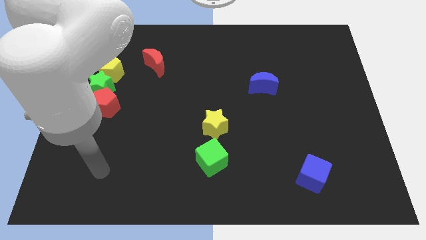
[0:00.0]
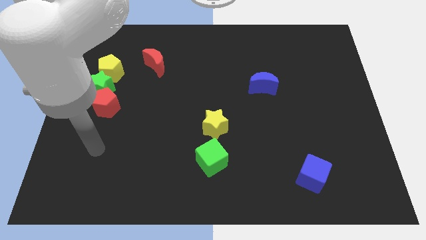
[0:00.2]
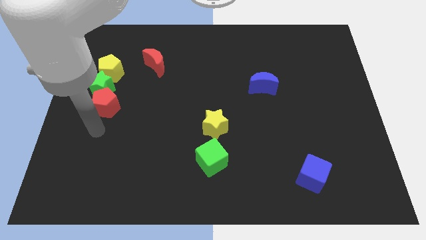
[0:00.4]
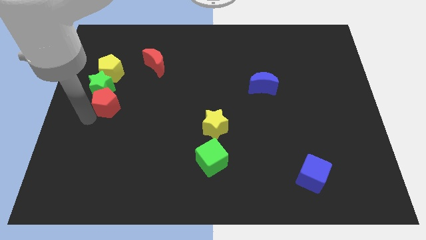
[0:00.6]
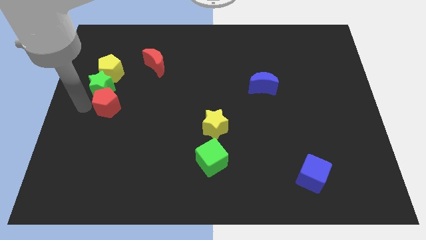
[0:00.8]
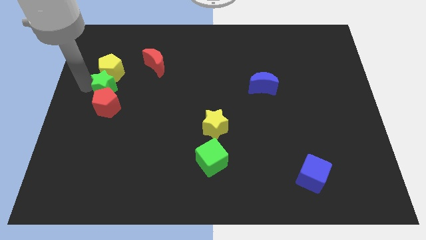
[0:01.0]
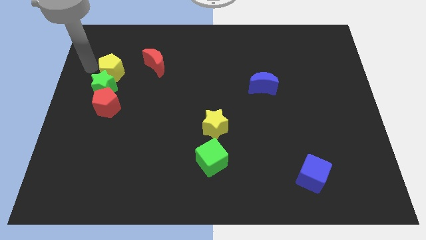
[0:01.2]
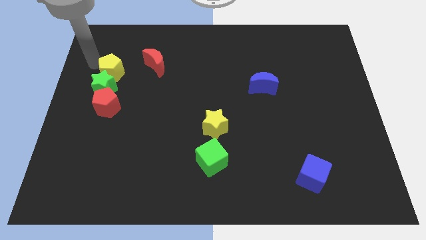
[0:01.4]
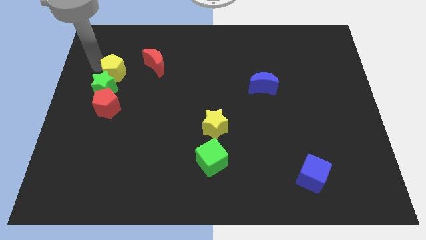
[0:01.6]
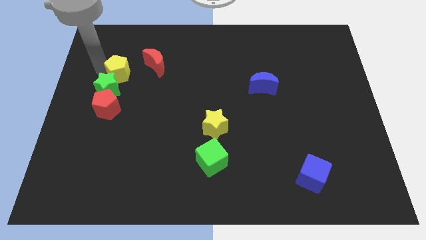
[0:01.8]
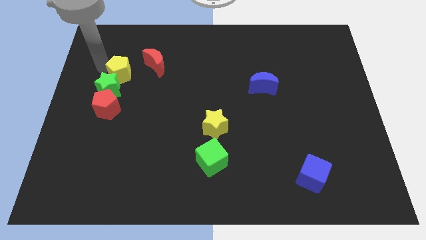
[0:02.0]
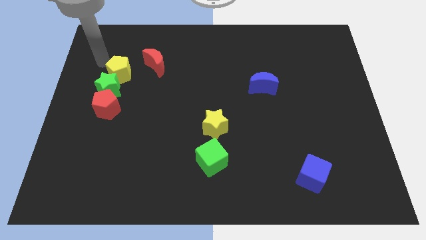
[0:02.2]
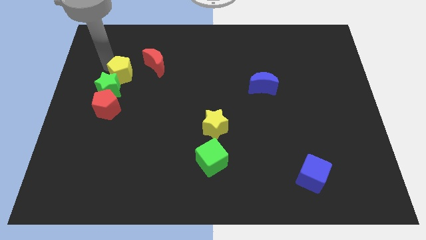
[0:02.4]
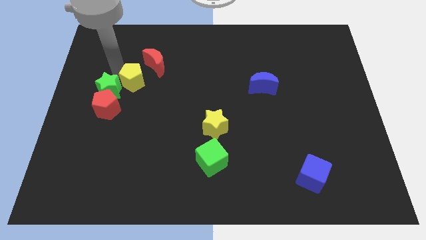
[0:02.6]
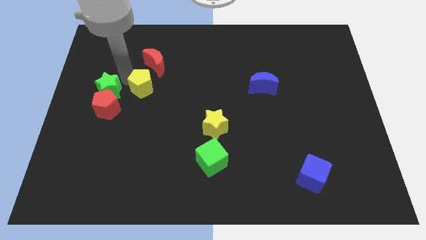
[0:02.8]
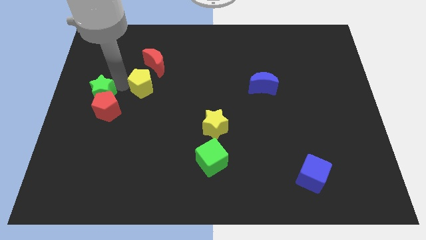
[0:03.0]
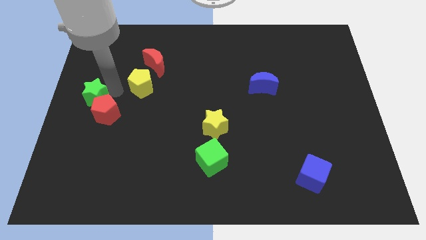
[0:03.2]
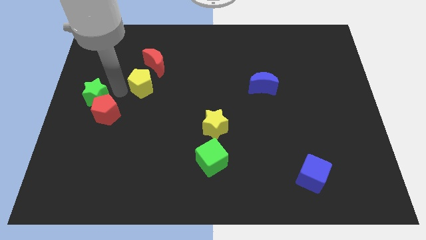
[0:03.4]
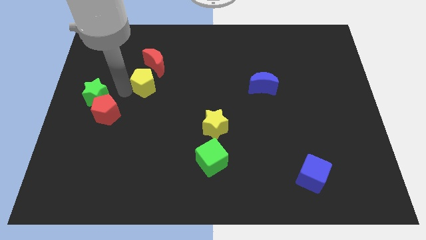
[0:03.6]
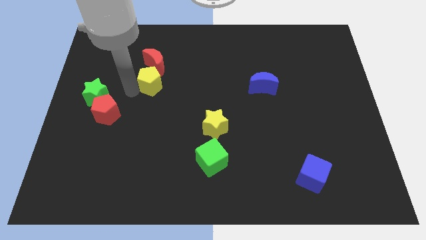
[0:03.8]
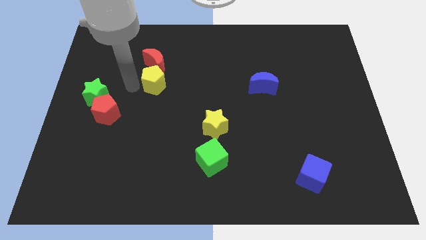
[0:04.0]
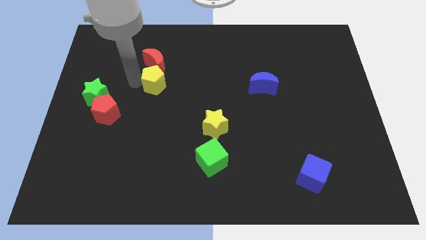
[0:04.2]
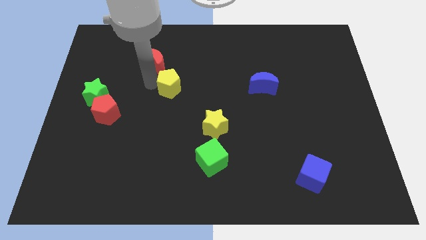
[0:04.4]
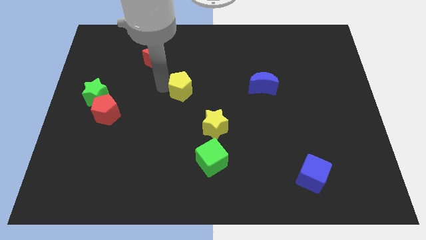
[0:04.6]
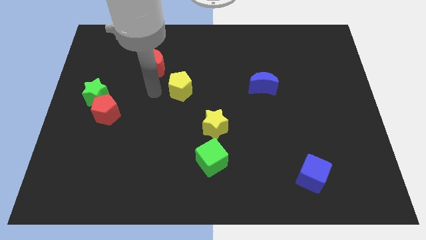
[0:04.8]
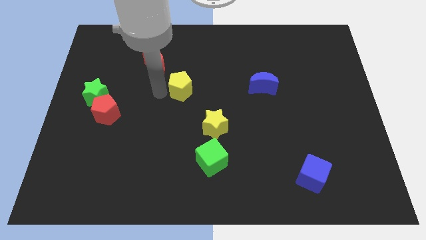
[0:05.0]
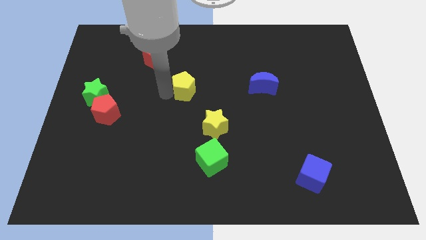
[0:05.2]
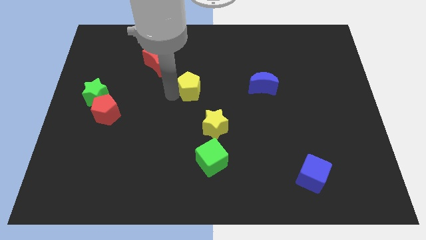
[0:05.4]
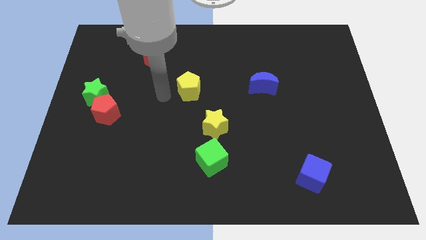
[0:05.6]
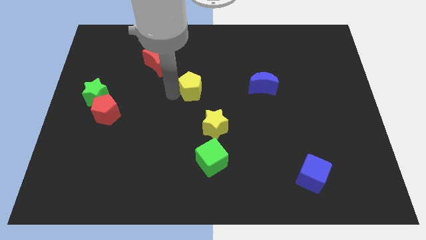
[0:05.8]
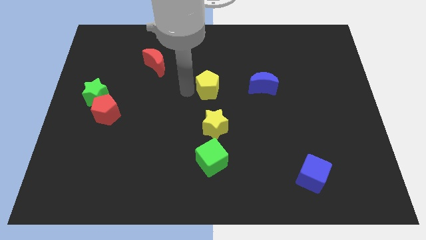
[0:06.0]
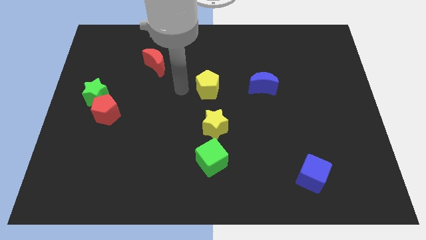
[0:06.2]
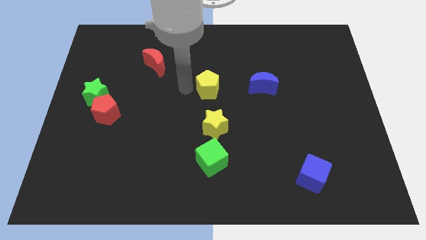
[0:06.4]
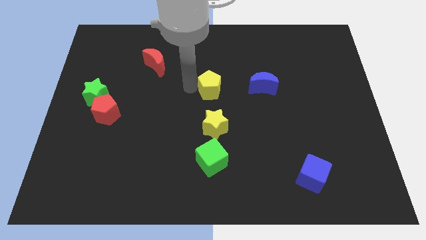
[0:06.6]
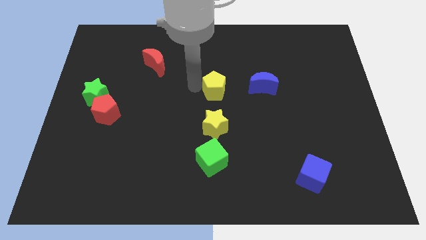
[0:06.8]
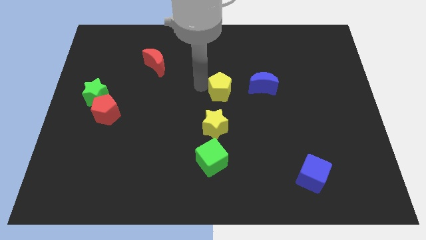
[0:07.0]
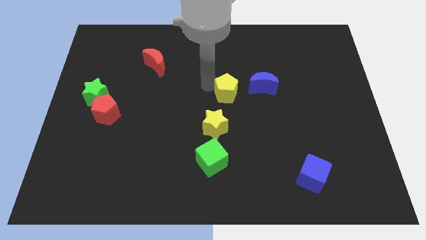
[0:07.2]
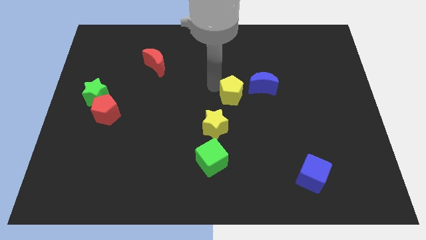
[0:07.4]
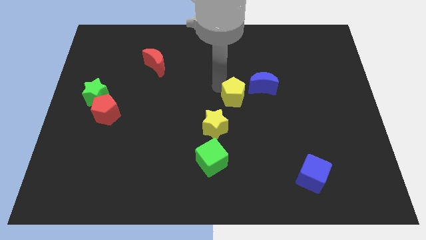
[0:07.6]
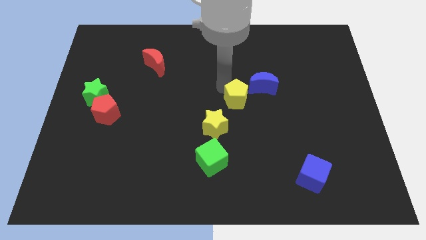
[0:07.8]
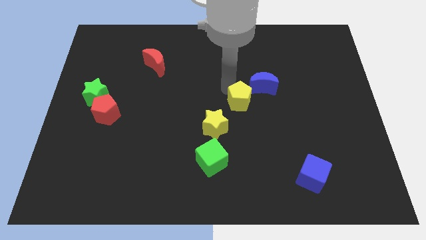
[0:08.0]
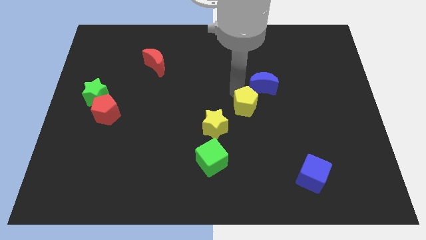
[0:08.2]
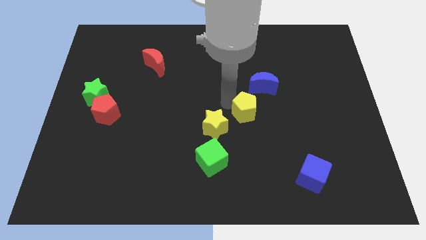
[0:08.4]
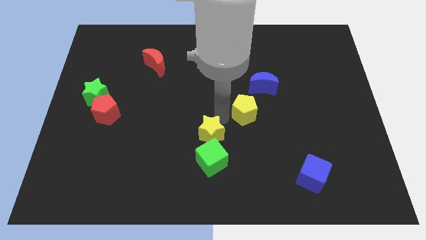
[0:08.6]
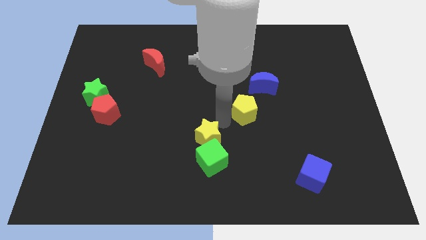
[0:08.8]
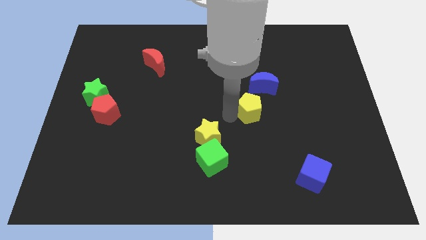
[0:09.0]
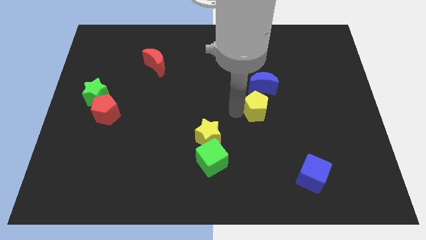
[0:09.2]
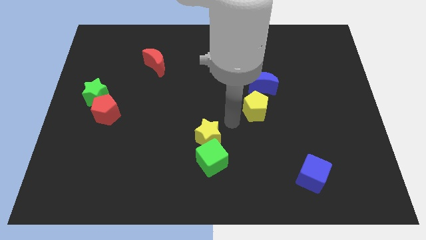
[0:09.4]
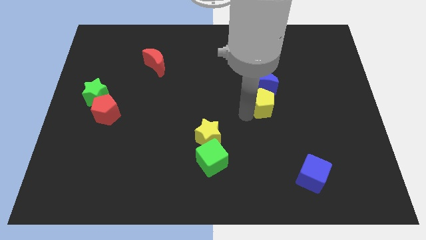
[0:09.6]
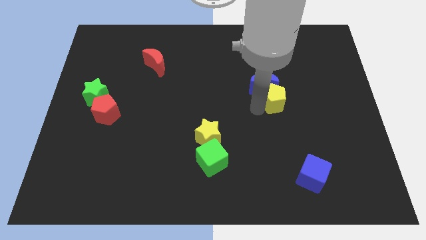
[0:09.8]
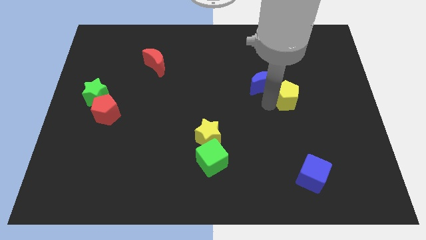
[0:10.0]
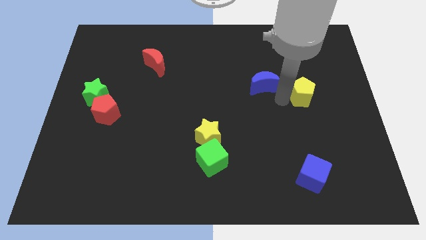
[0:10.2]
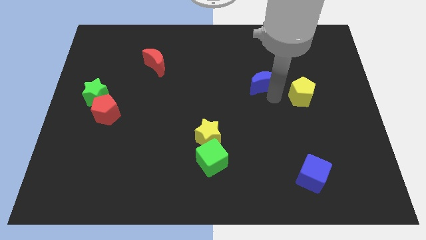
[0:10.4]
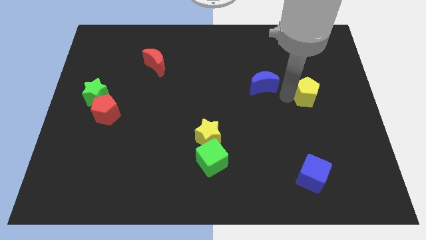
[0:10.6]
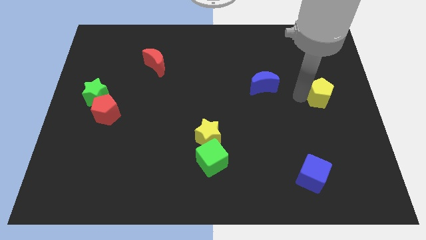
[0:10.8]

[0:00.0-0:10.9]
move the yellow pentagon to the center right

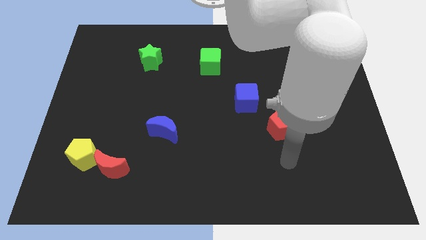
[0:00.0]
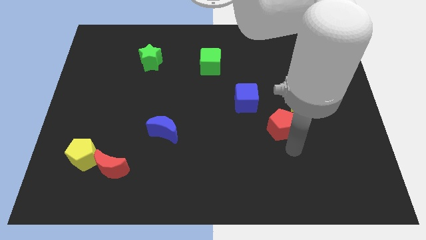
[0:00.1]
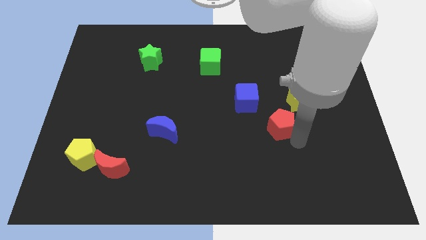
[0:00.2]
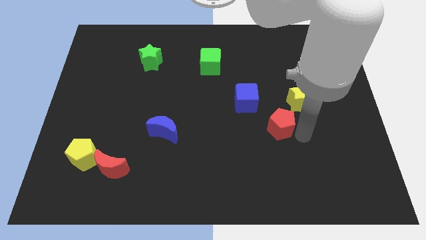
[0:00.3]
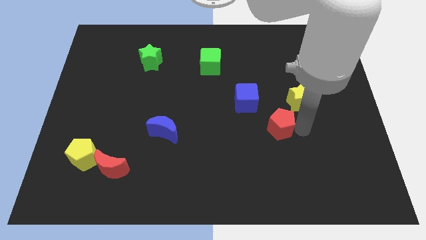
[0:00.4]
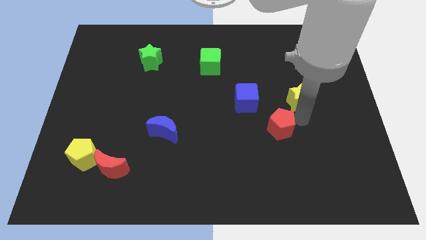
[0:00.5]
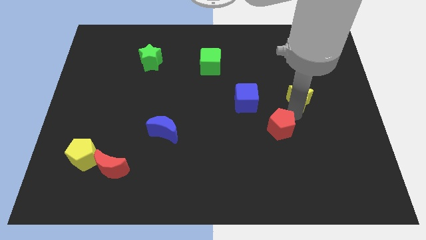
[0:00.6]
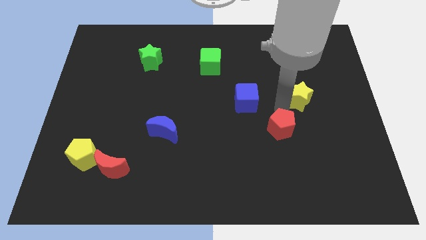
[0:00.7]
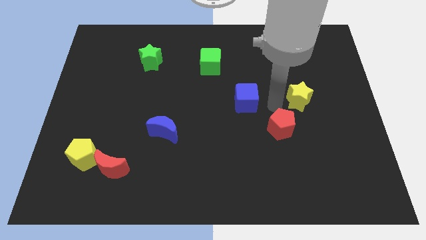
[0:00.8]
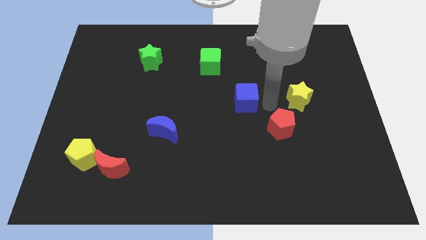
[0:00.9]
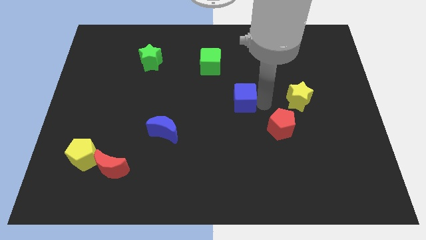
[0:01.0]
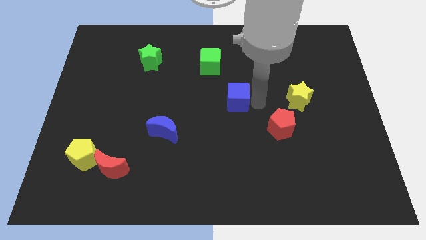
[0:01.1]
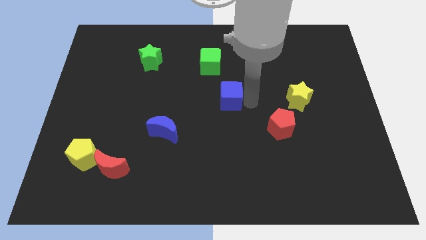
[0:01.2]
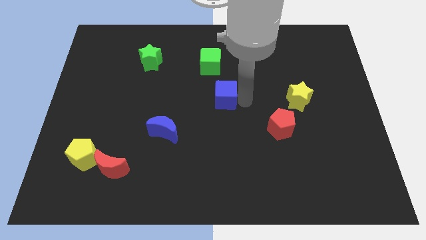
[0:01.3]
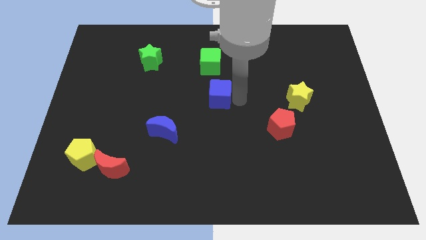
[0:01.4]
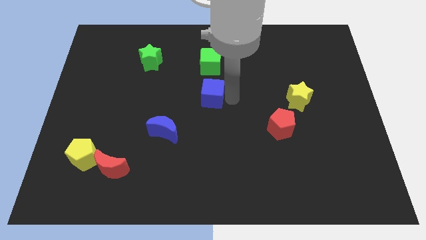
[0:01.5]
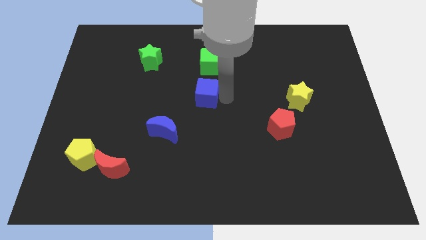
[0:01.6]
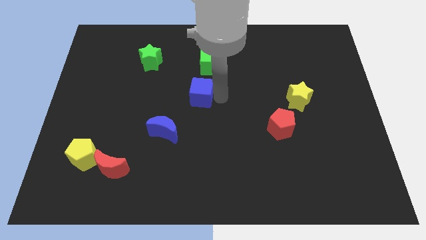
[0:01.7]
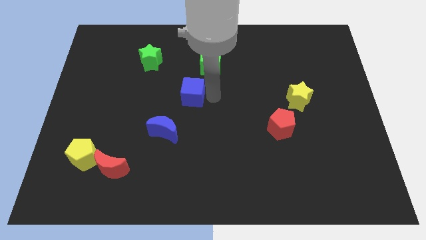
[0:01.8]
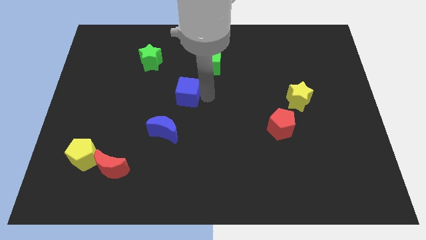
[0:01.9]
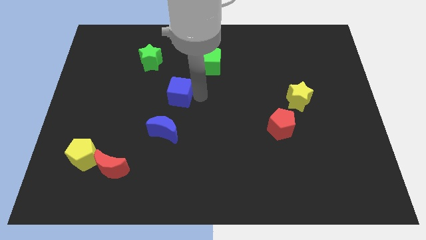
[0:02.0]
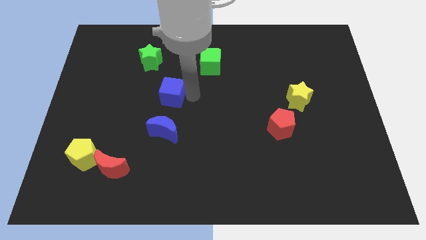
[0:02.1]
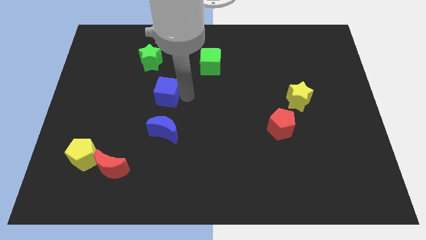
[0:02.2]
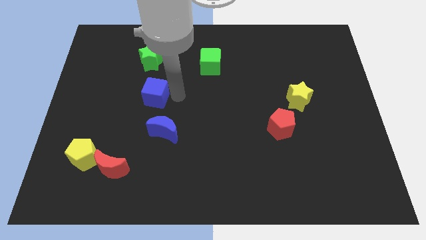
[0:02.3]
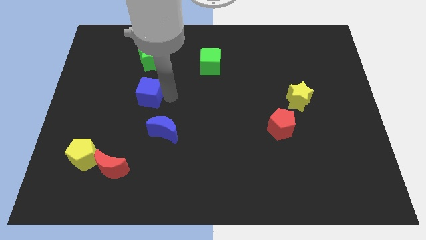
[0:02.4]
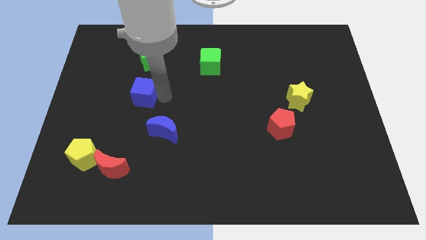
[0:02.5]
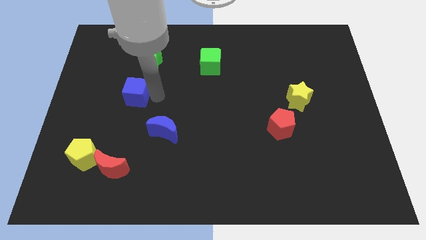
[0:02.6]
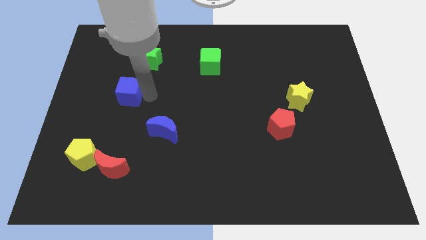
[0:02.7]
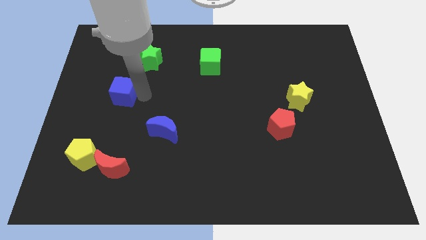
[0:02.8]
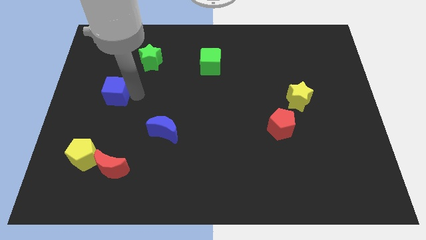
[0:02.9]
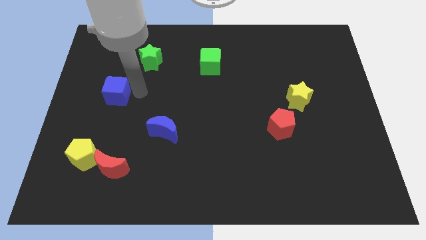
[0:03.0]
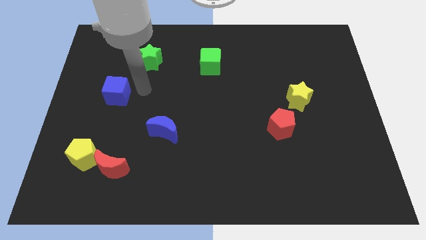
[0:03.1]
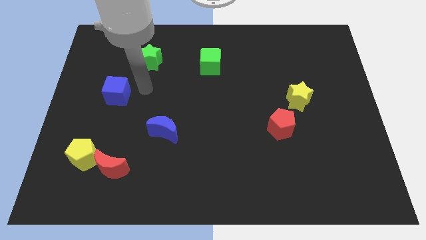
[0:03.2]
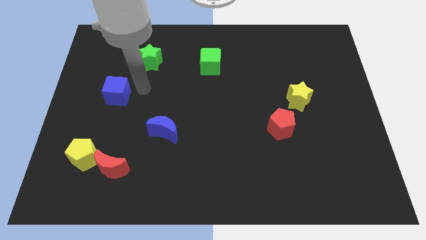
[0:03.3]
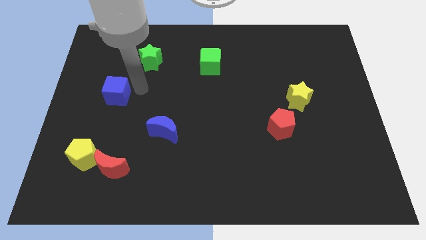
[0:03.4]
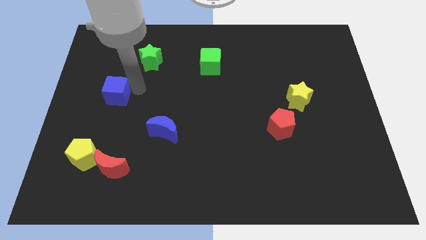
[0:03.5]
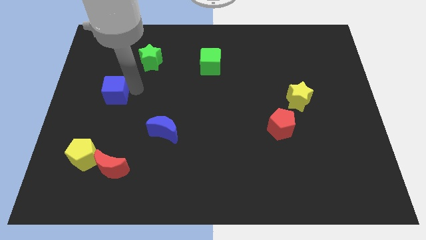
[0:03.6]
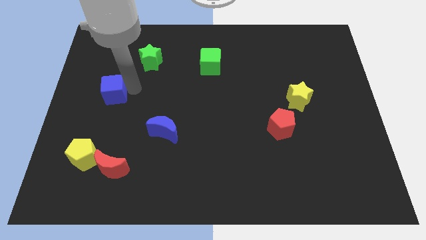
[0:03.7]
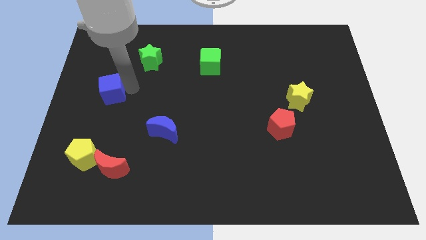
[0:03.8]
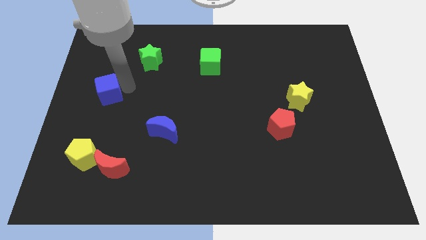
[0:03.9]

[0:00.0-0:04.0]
move the blue cube to the left side of the board
